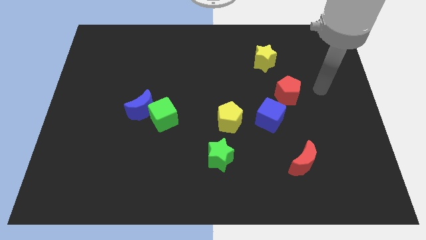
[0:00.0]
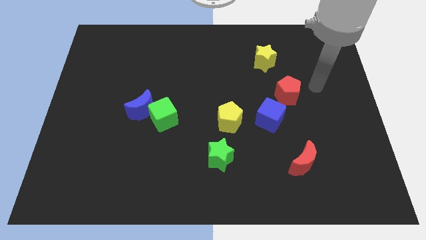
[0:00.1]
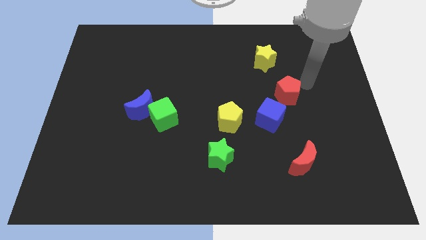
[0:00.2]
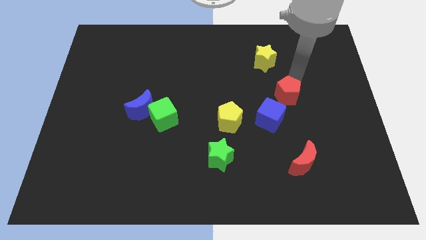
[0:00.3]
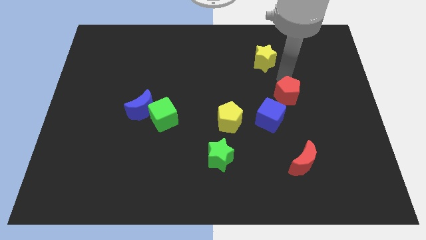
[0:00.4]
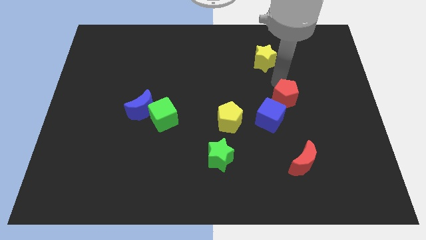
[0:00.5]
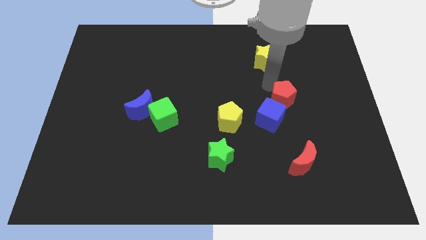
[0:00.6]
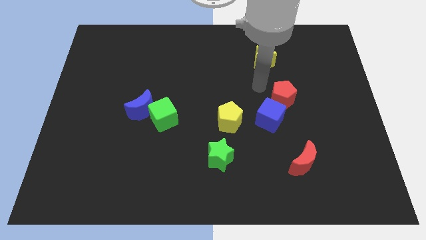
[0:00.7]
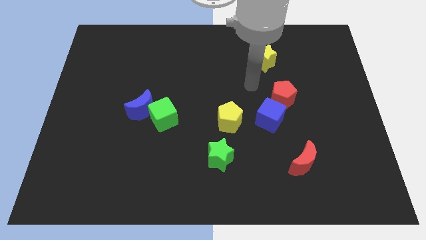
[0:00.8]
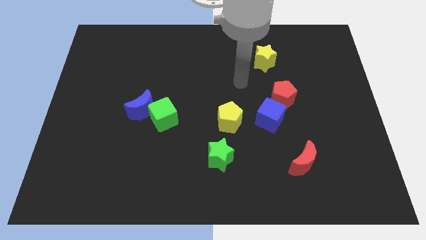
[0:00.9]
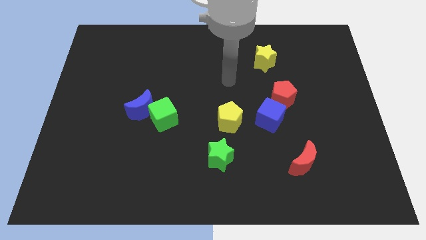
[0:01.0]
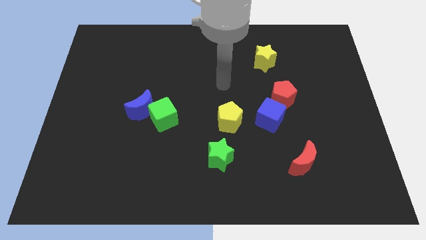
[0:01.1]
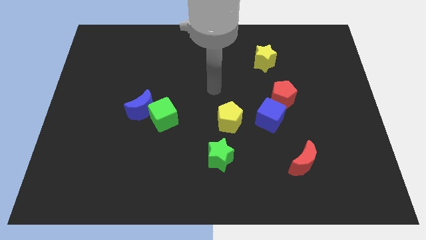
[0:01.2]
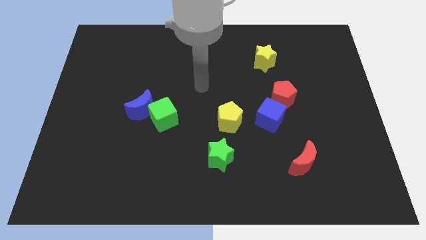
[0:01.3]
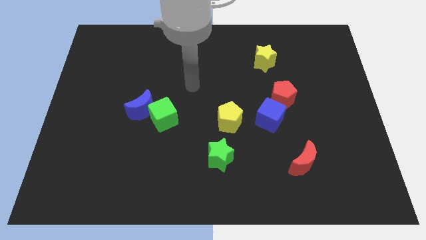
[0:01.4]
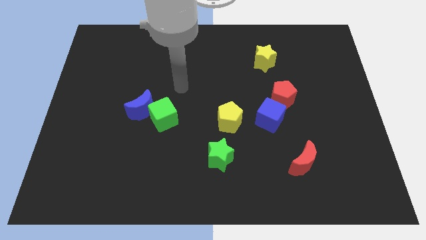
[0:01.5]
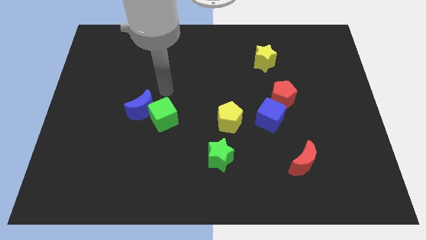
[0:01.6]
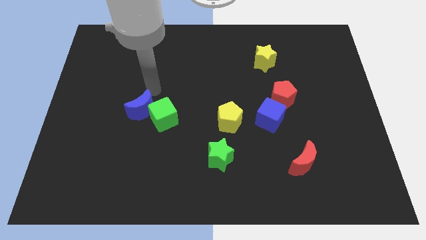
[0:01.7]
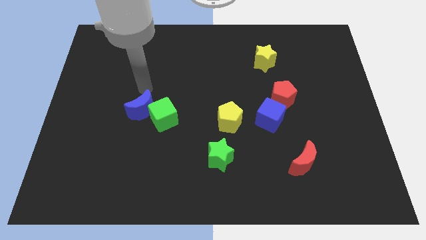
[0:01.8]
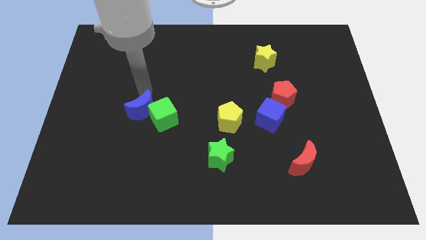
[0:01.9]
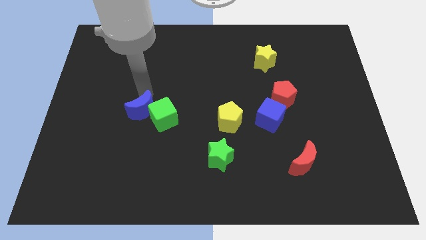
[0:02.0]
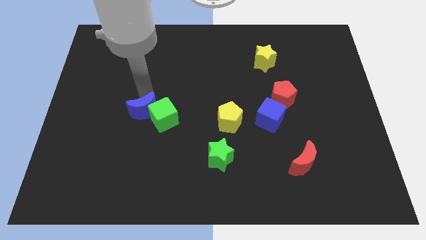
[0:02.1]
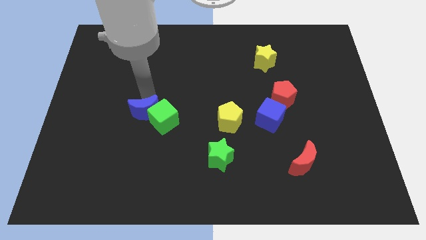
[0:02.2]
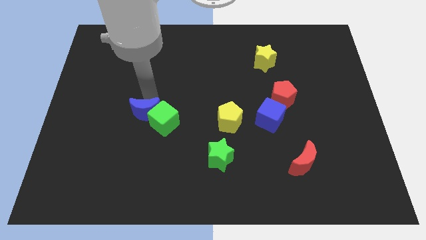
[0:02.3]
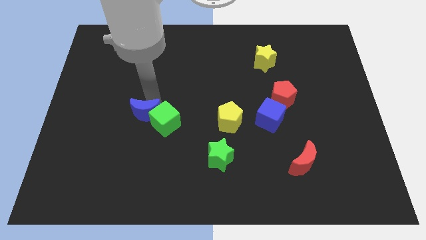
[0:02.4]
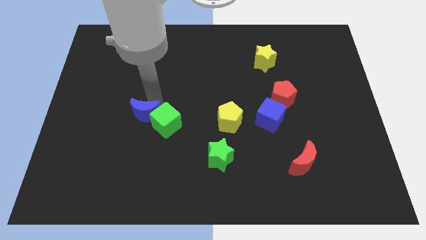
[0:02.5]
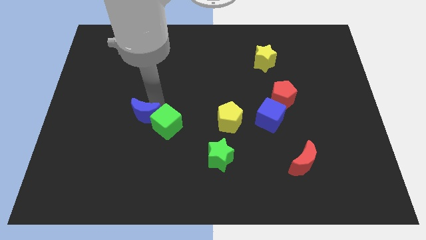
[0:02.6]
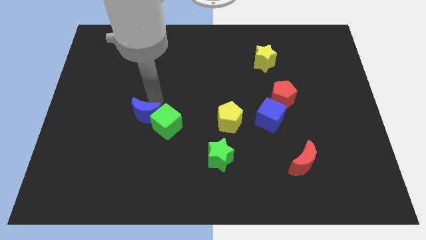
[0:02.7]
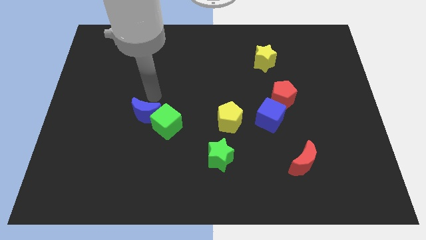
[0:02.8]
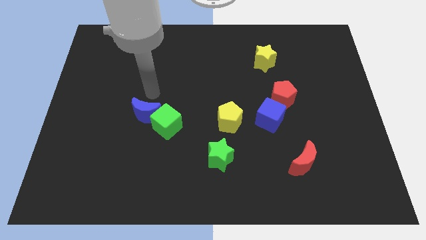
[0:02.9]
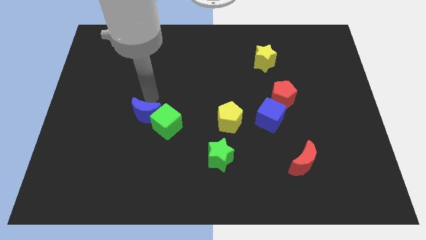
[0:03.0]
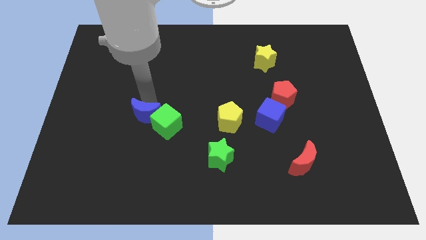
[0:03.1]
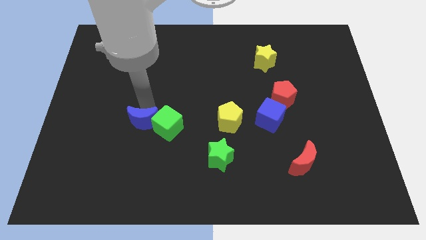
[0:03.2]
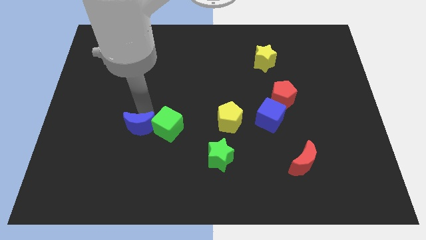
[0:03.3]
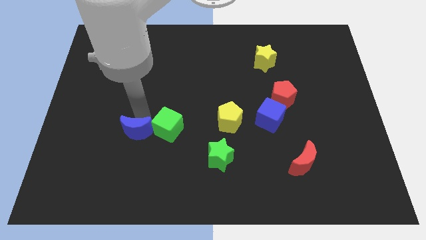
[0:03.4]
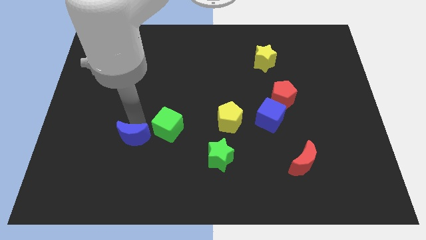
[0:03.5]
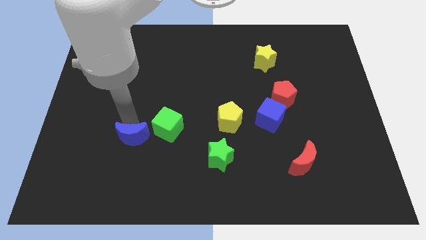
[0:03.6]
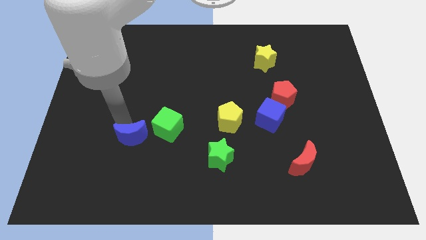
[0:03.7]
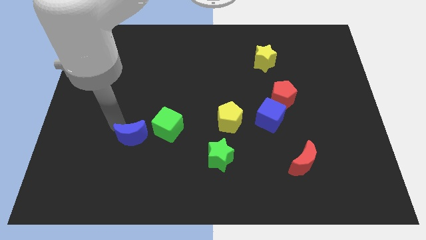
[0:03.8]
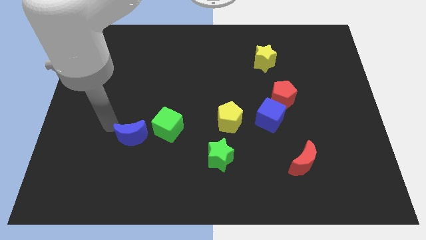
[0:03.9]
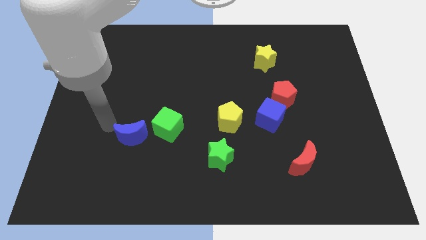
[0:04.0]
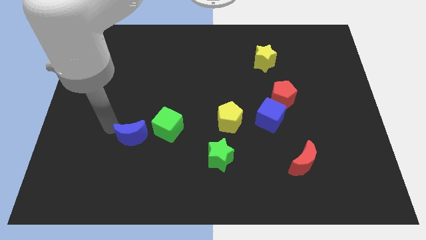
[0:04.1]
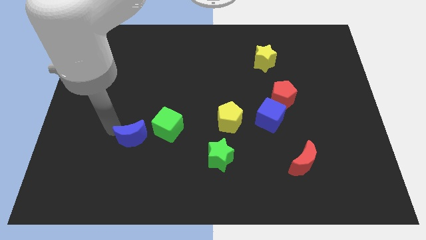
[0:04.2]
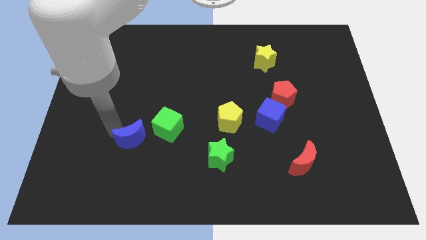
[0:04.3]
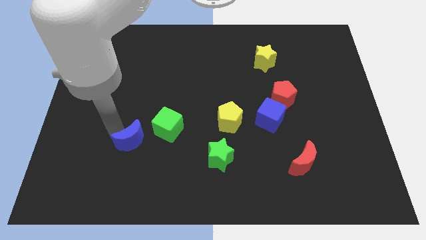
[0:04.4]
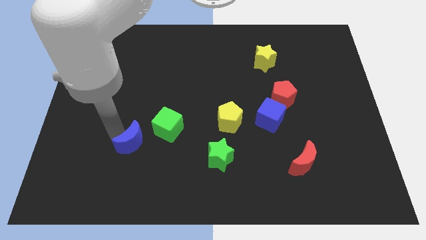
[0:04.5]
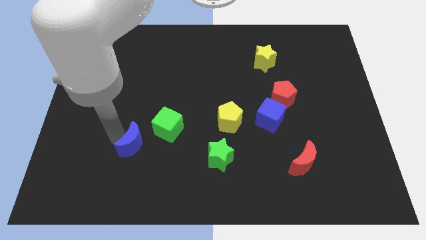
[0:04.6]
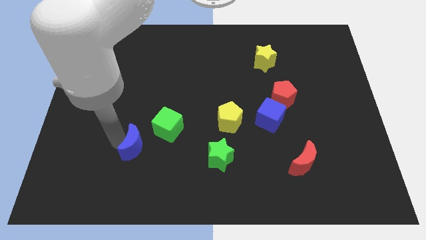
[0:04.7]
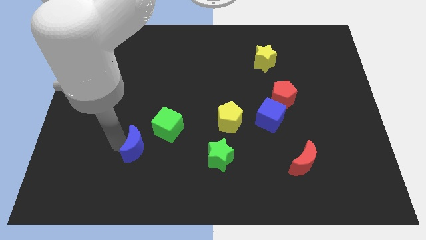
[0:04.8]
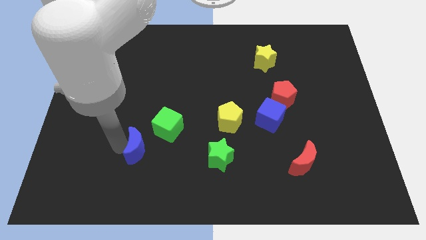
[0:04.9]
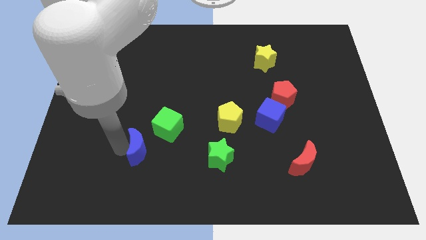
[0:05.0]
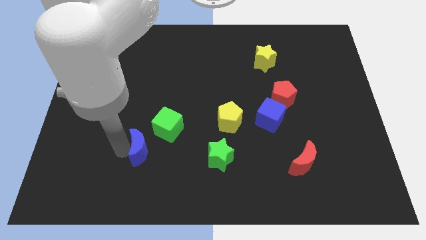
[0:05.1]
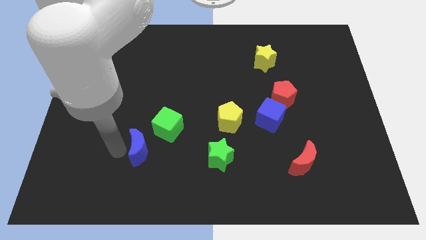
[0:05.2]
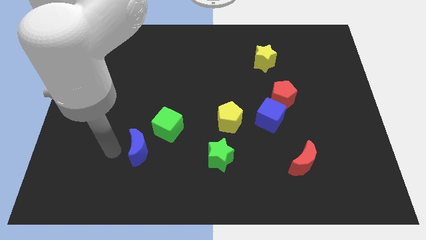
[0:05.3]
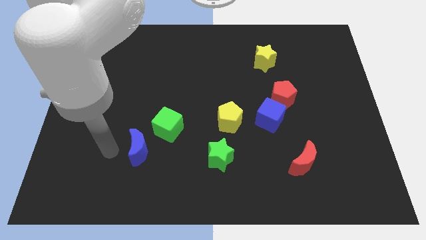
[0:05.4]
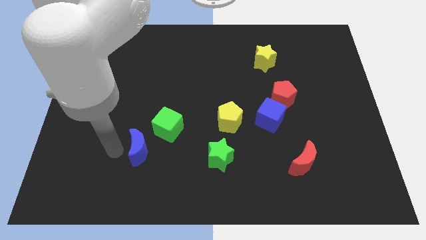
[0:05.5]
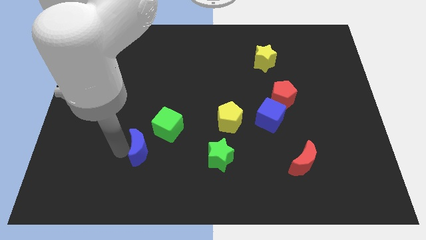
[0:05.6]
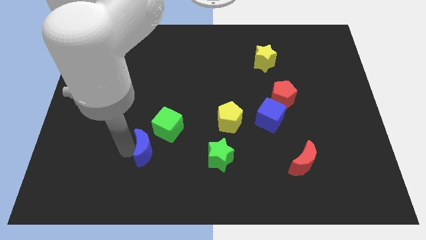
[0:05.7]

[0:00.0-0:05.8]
push the blue moon slightly downwards and then right

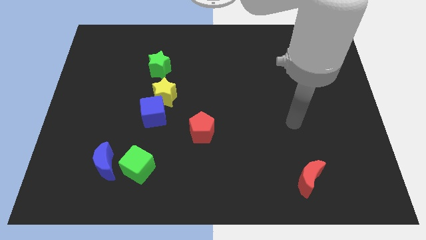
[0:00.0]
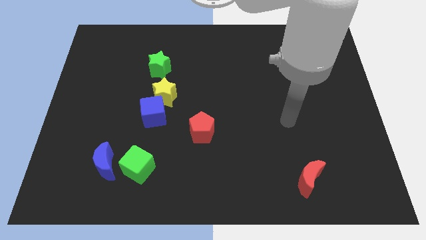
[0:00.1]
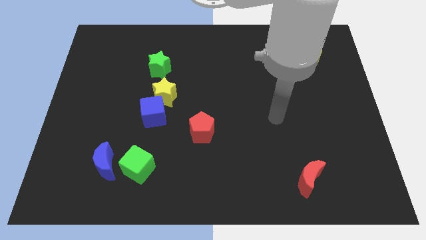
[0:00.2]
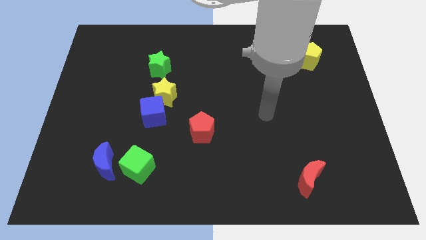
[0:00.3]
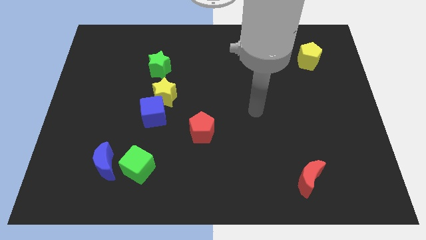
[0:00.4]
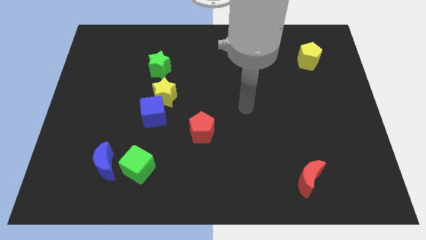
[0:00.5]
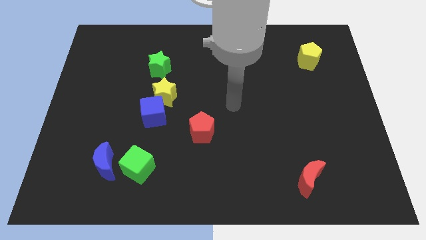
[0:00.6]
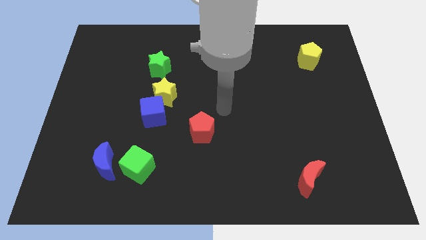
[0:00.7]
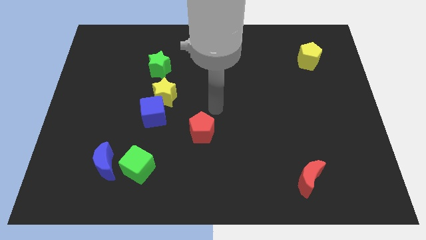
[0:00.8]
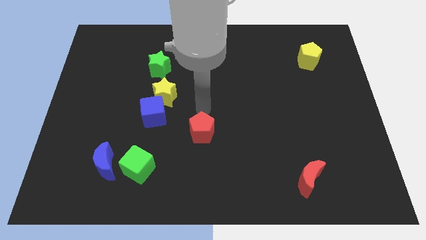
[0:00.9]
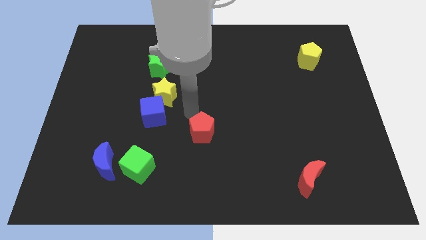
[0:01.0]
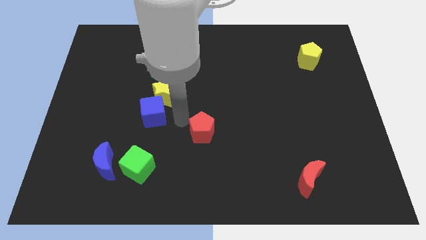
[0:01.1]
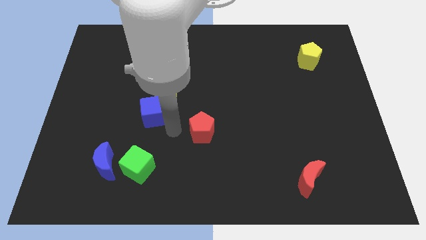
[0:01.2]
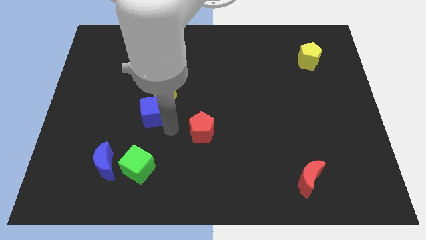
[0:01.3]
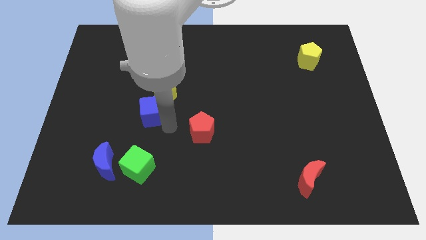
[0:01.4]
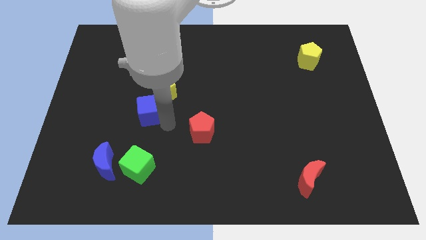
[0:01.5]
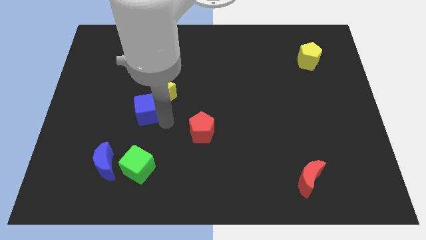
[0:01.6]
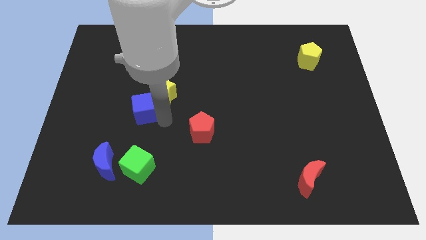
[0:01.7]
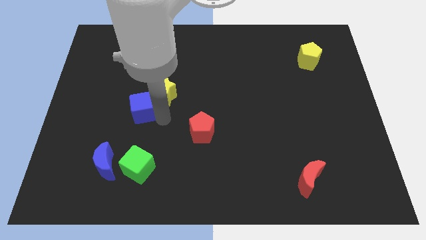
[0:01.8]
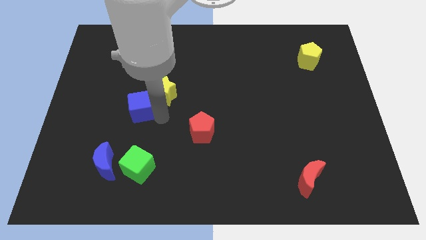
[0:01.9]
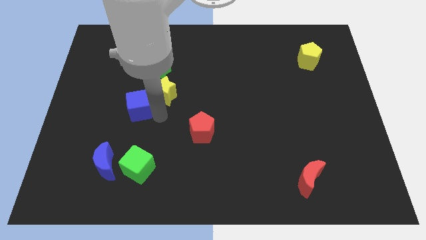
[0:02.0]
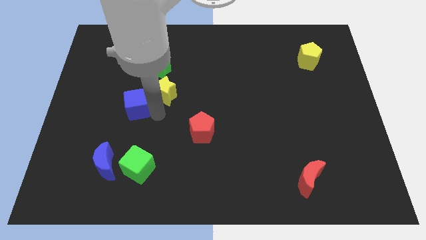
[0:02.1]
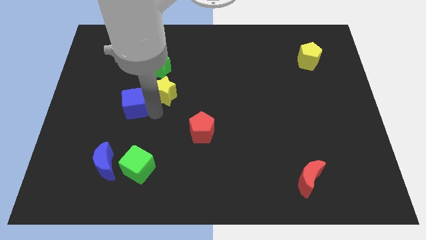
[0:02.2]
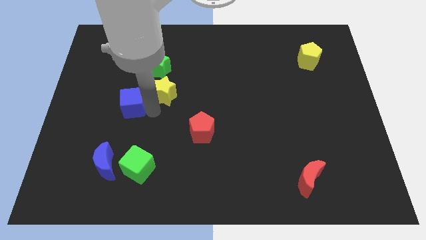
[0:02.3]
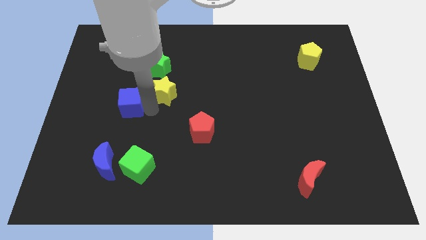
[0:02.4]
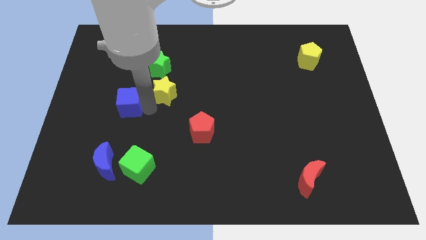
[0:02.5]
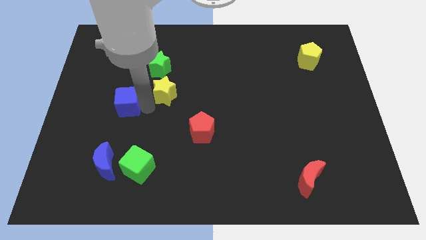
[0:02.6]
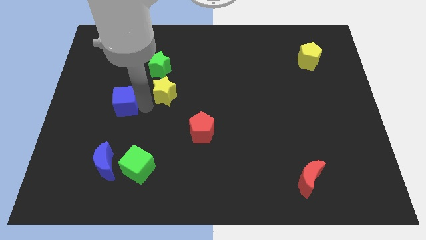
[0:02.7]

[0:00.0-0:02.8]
push the blue cube up and then left somewhat
